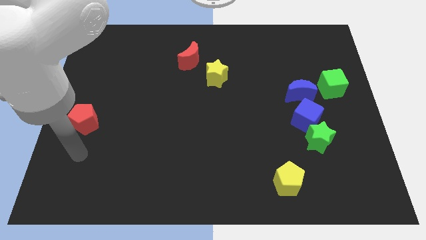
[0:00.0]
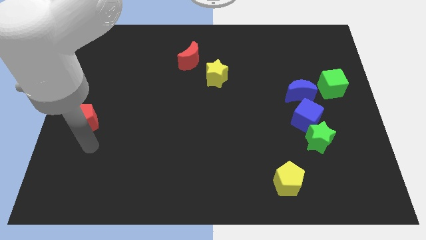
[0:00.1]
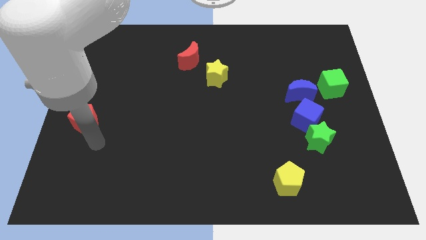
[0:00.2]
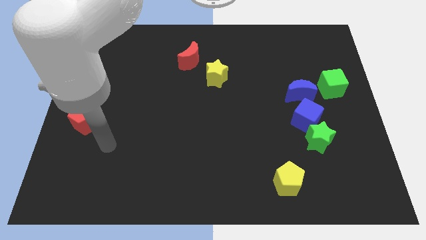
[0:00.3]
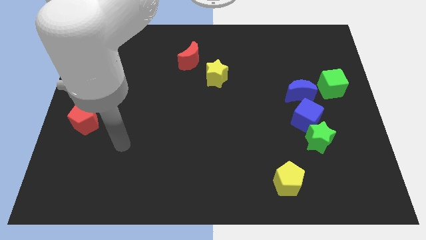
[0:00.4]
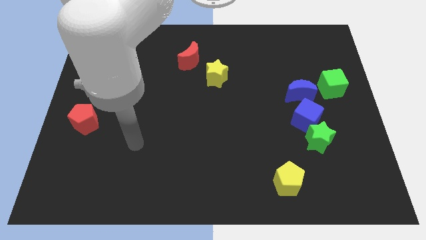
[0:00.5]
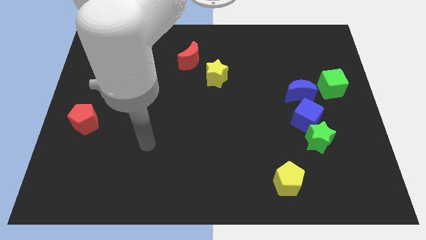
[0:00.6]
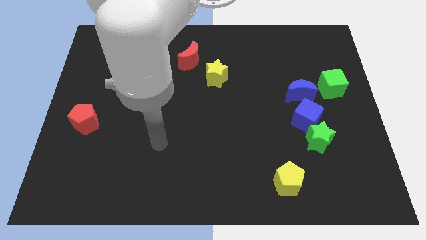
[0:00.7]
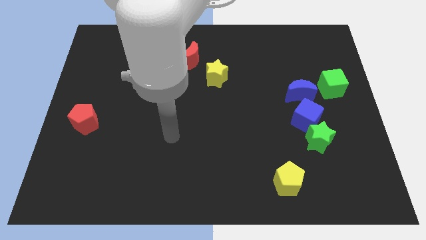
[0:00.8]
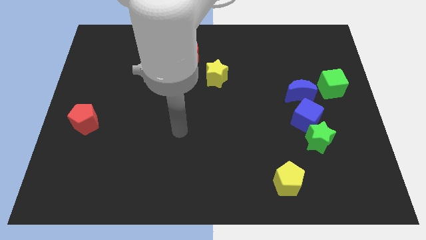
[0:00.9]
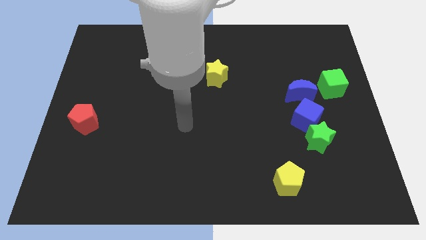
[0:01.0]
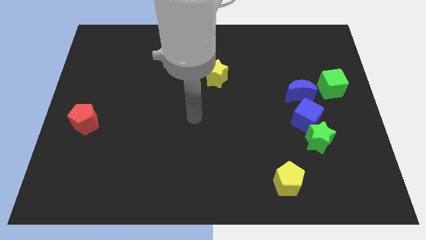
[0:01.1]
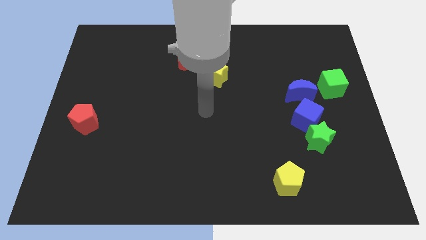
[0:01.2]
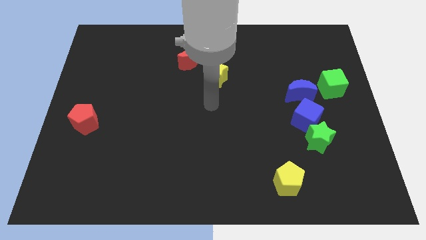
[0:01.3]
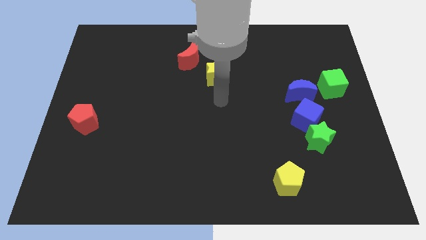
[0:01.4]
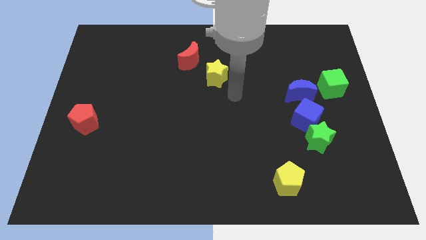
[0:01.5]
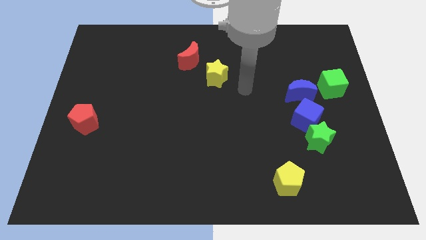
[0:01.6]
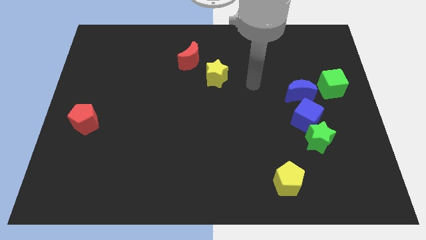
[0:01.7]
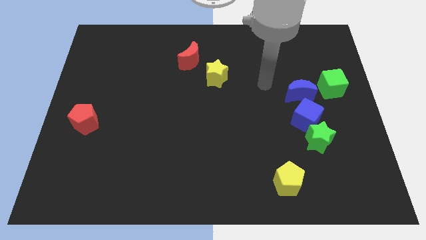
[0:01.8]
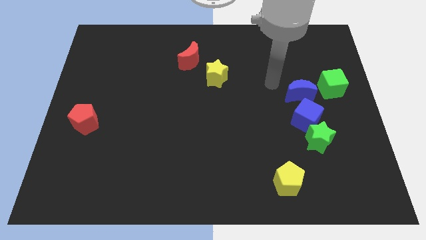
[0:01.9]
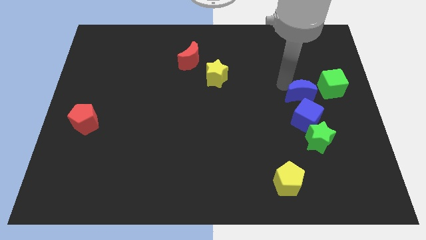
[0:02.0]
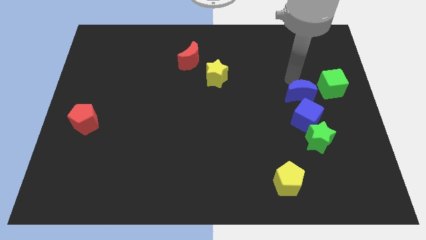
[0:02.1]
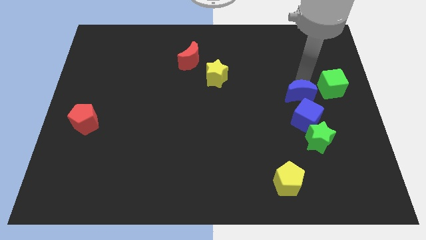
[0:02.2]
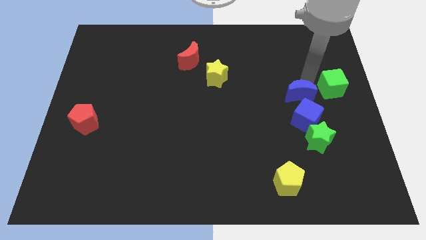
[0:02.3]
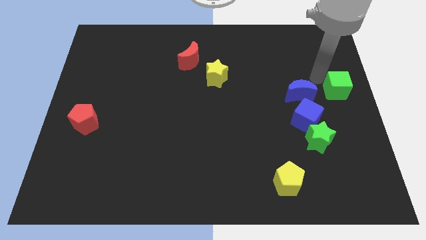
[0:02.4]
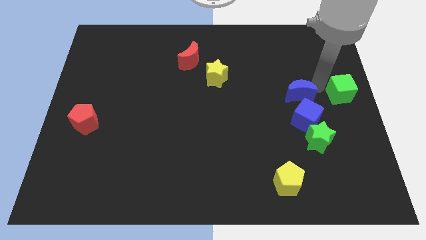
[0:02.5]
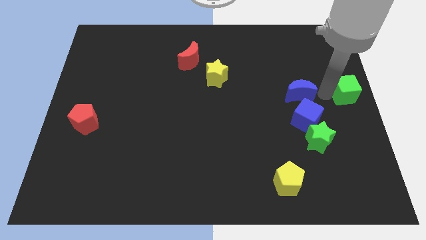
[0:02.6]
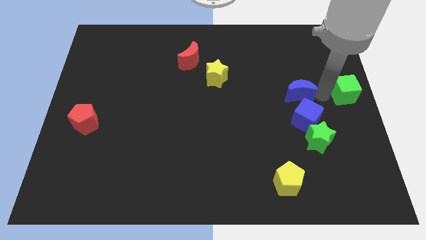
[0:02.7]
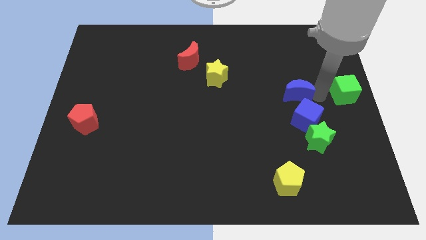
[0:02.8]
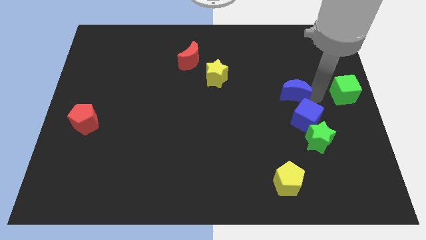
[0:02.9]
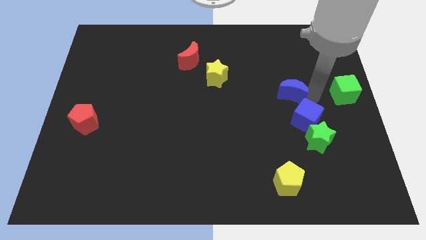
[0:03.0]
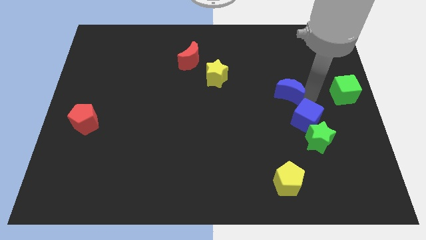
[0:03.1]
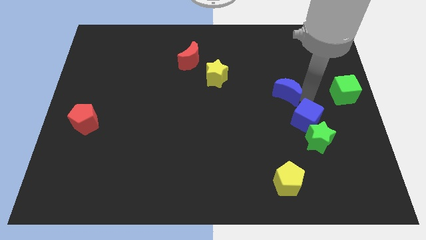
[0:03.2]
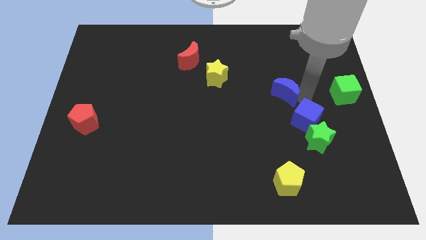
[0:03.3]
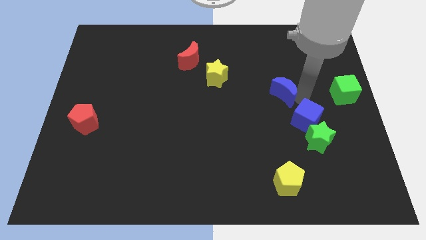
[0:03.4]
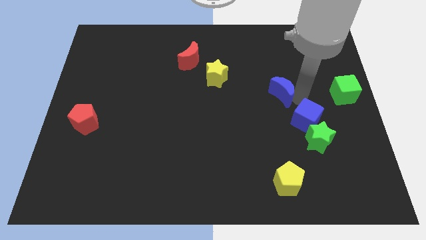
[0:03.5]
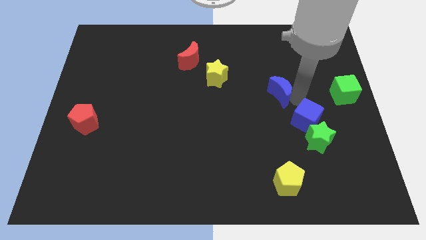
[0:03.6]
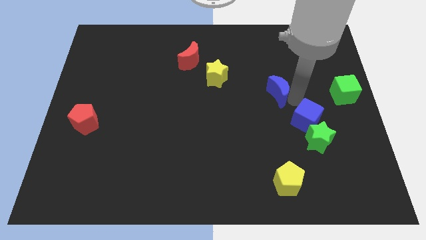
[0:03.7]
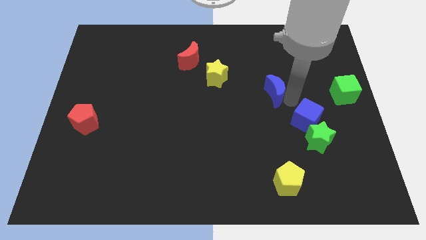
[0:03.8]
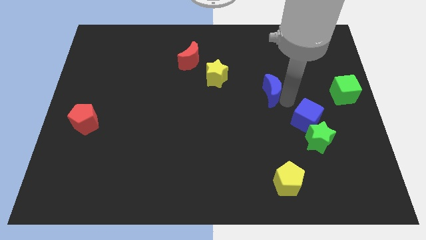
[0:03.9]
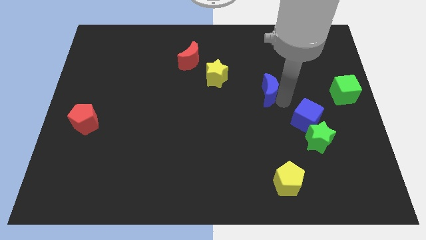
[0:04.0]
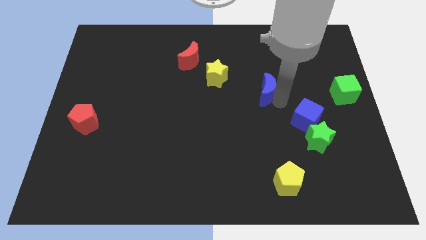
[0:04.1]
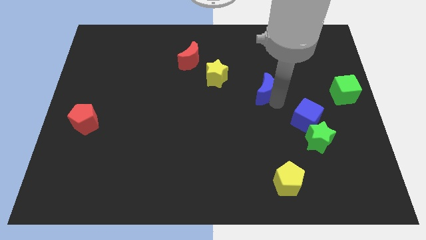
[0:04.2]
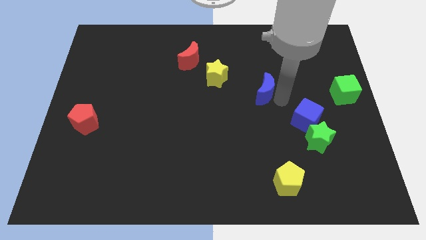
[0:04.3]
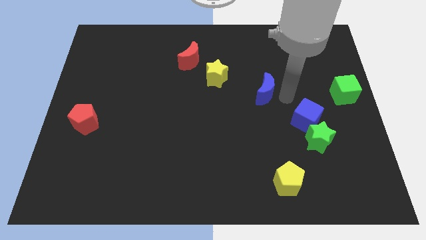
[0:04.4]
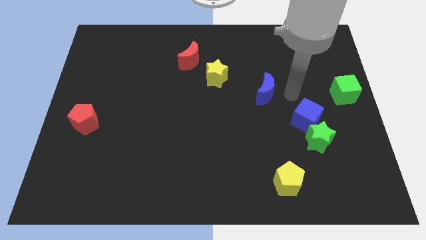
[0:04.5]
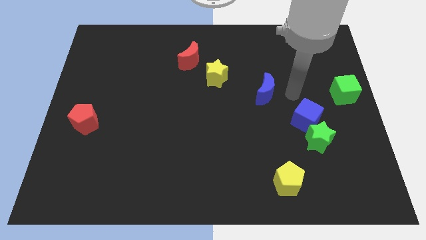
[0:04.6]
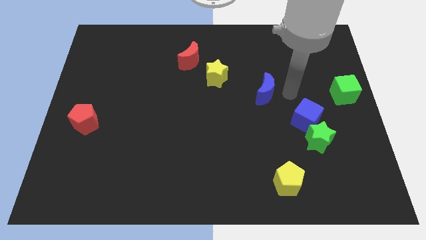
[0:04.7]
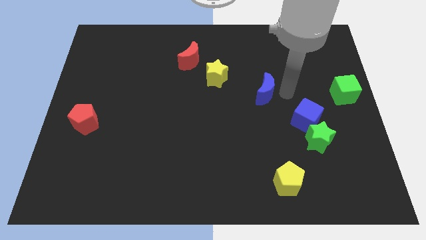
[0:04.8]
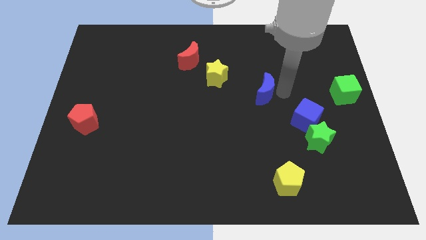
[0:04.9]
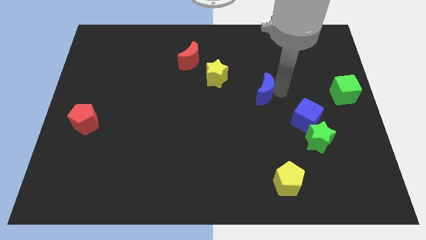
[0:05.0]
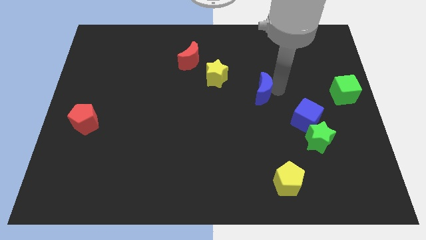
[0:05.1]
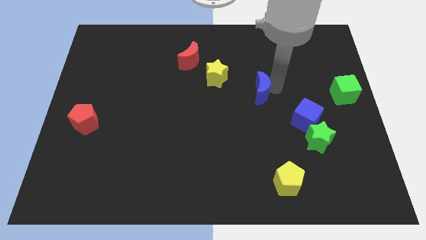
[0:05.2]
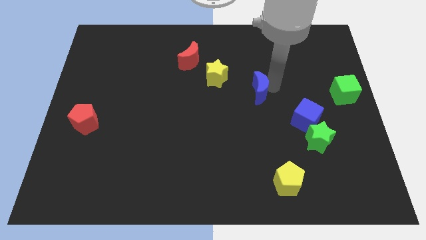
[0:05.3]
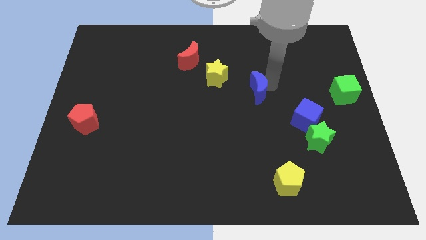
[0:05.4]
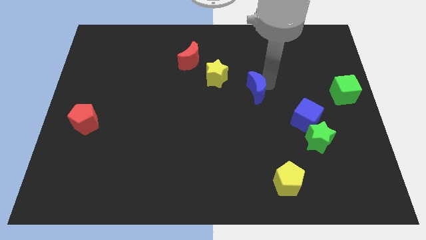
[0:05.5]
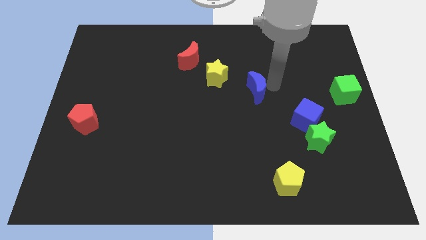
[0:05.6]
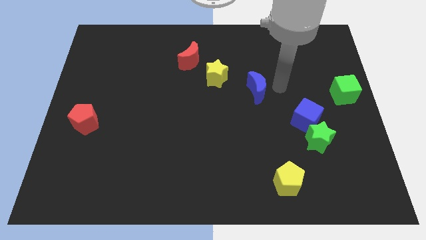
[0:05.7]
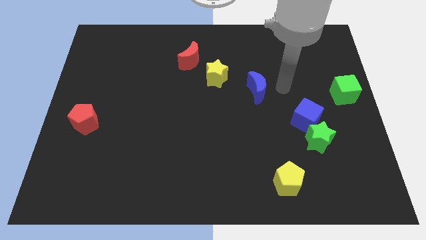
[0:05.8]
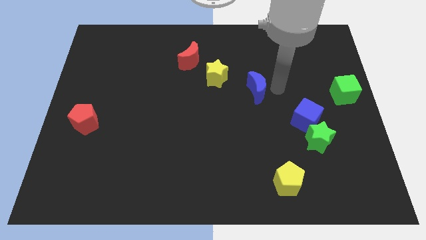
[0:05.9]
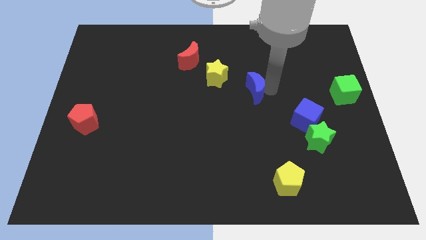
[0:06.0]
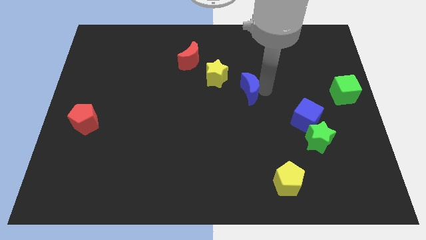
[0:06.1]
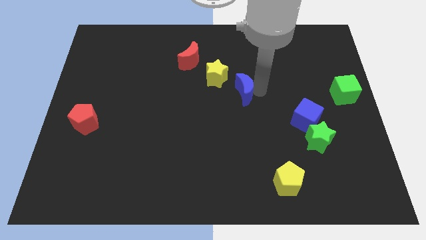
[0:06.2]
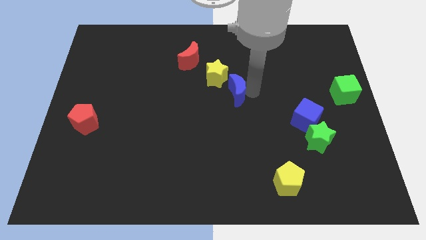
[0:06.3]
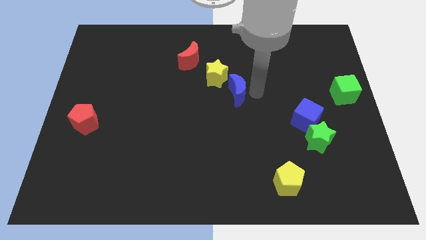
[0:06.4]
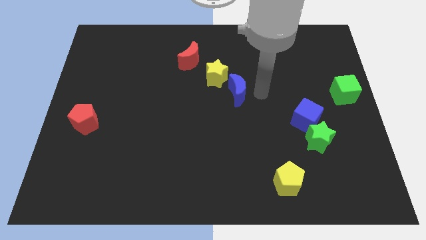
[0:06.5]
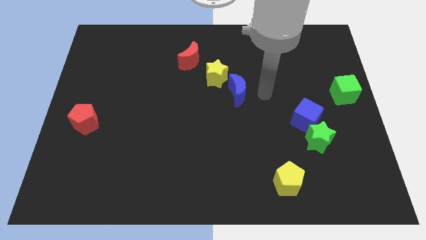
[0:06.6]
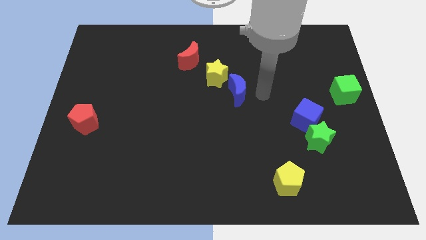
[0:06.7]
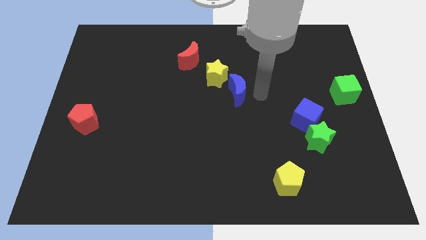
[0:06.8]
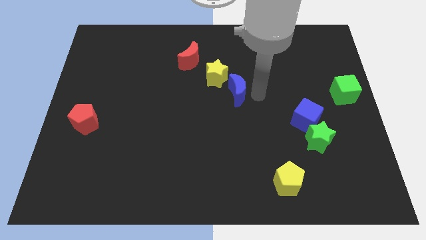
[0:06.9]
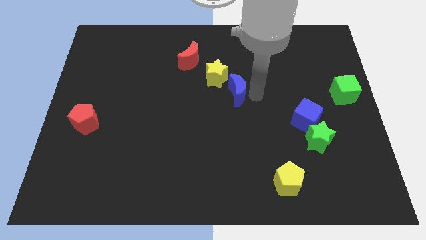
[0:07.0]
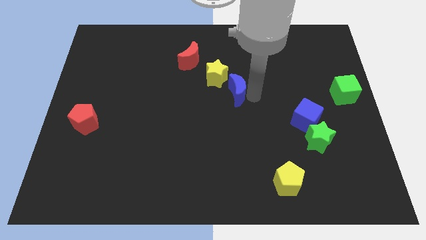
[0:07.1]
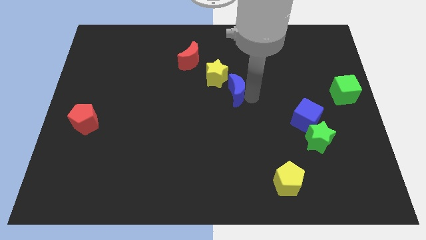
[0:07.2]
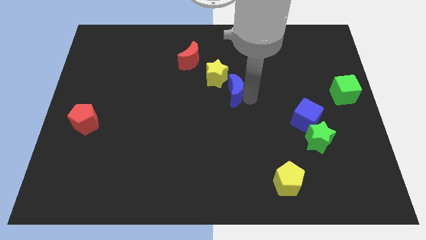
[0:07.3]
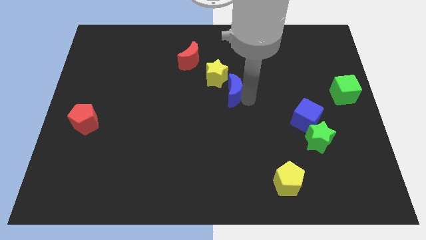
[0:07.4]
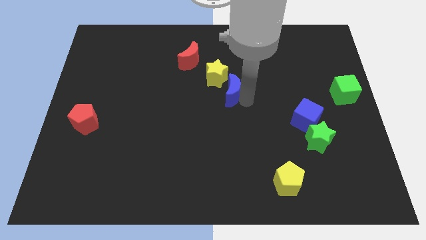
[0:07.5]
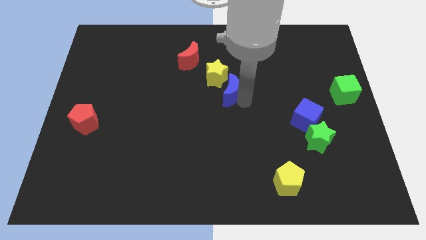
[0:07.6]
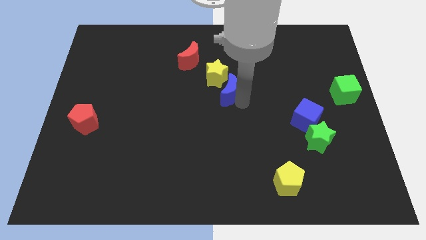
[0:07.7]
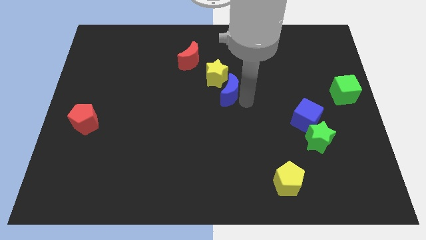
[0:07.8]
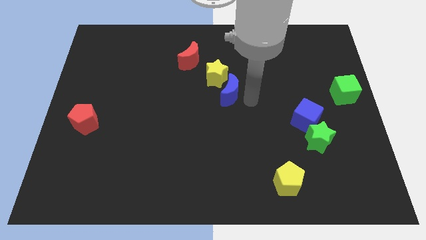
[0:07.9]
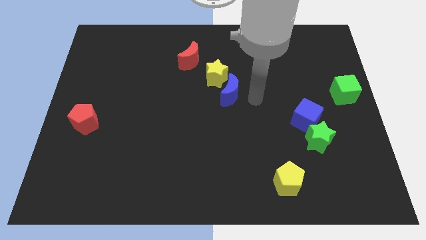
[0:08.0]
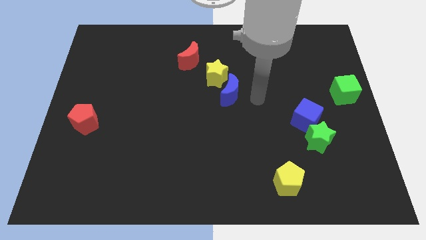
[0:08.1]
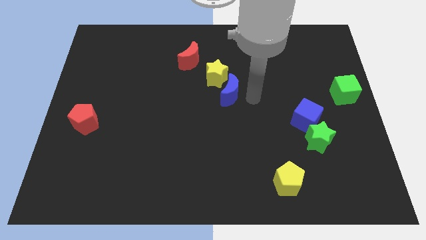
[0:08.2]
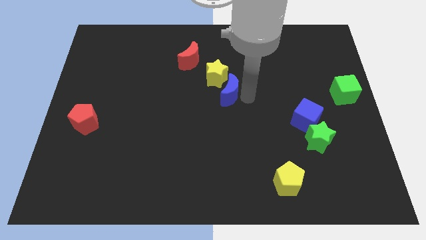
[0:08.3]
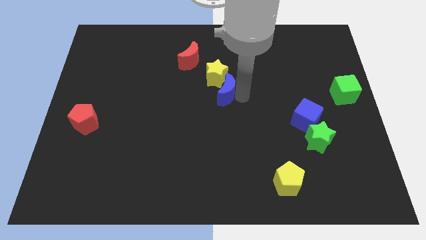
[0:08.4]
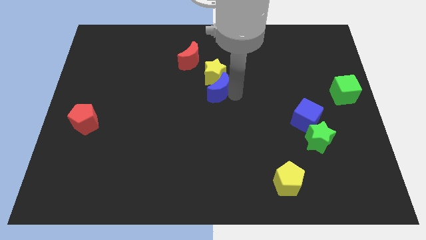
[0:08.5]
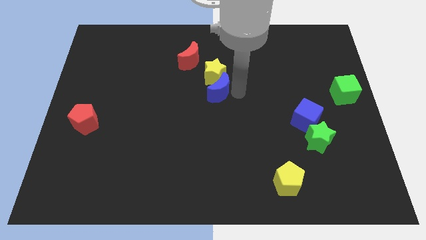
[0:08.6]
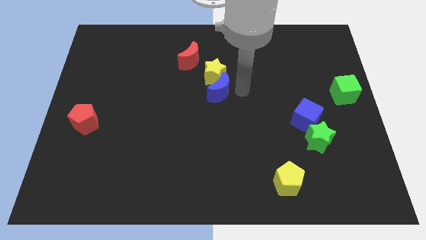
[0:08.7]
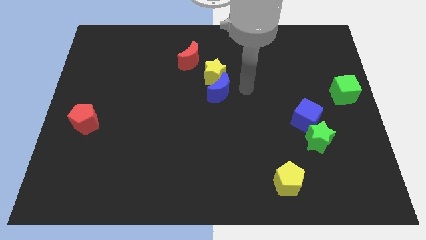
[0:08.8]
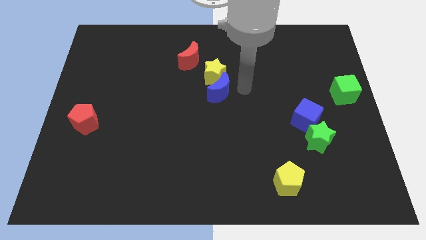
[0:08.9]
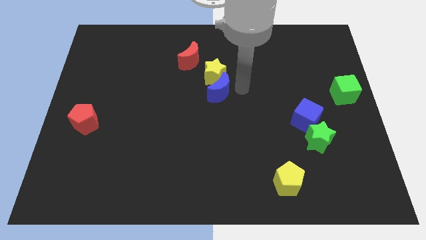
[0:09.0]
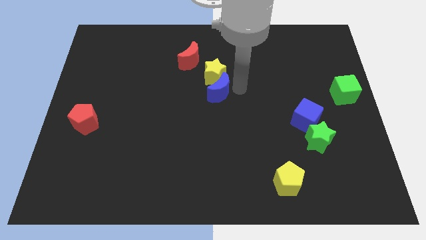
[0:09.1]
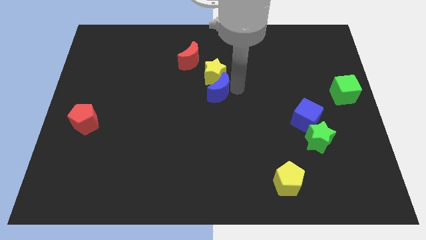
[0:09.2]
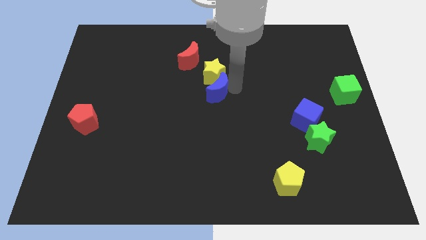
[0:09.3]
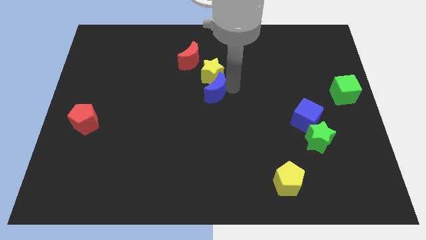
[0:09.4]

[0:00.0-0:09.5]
move the blue moon to the left
